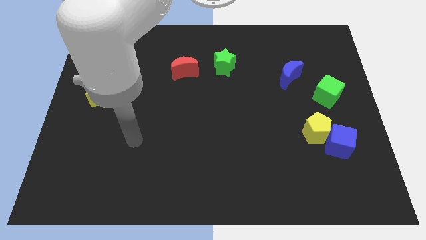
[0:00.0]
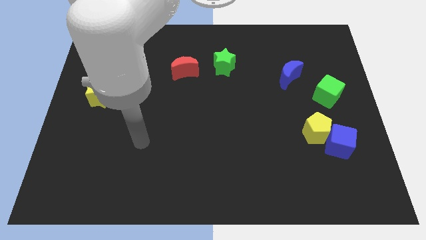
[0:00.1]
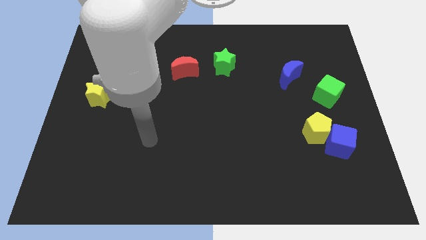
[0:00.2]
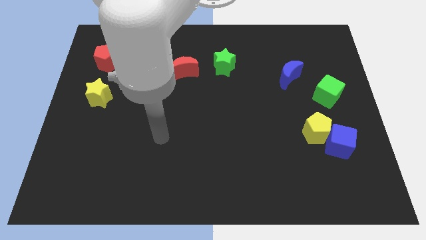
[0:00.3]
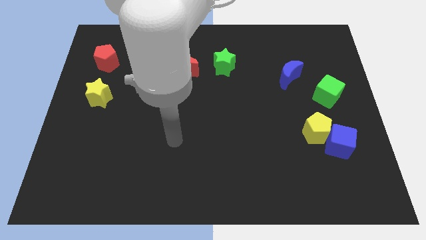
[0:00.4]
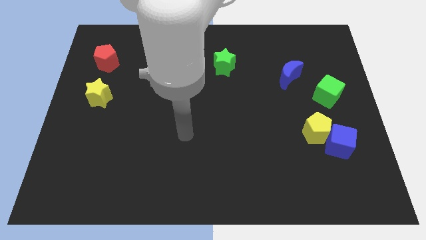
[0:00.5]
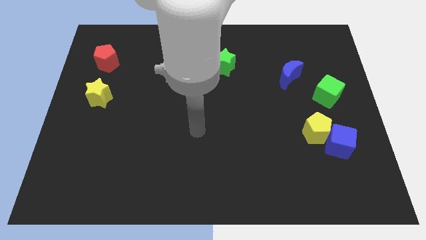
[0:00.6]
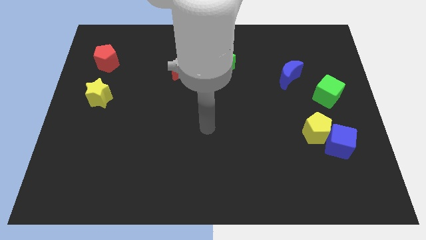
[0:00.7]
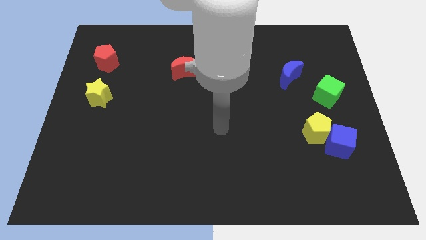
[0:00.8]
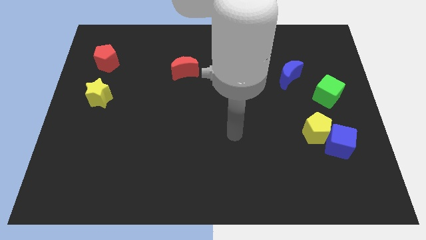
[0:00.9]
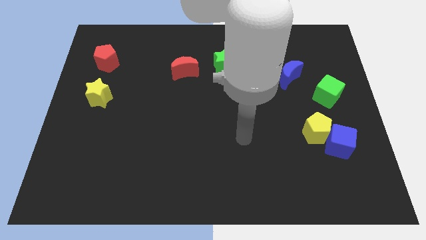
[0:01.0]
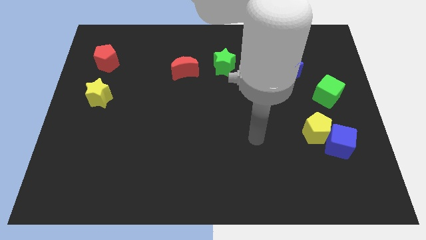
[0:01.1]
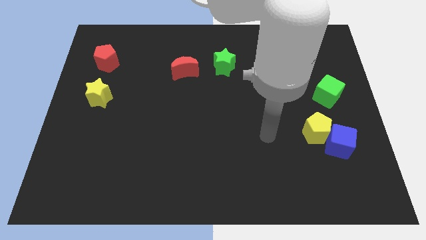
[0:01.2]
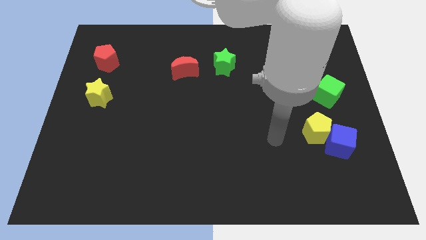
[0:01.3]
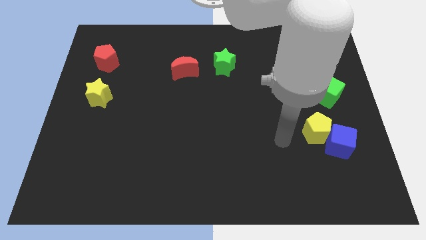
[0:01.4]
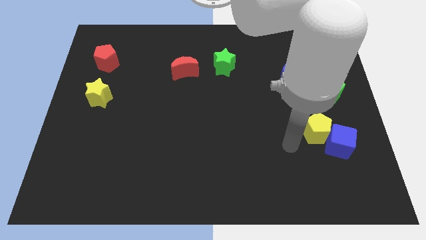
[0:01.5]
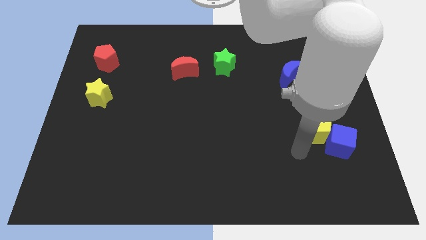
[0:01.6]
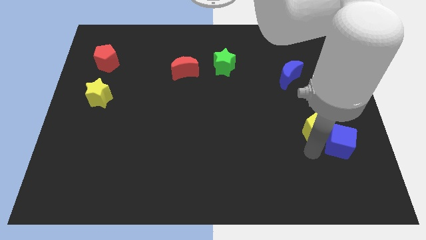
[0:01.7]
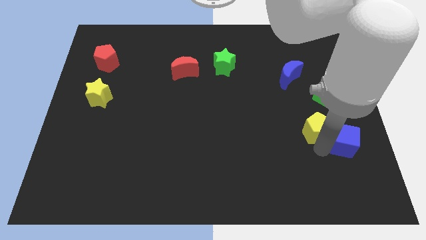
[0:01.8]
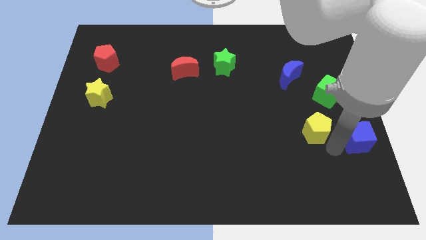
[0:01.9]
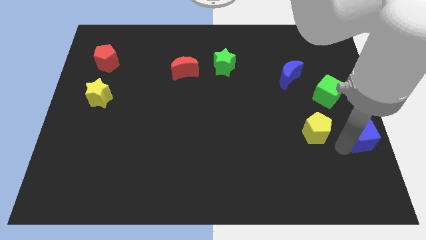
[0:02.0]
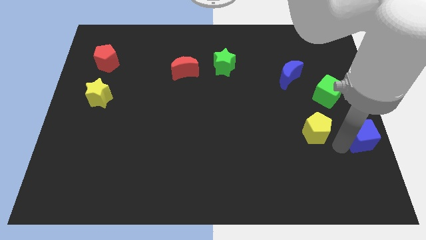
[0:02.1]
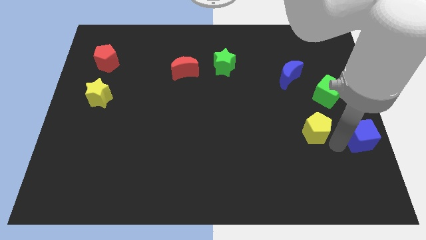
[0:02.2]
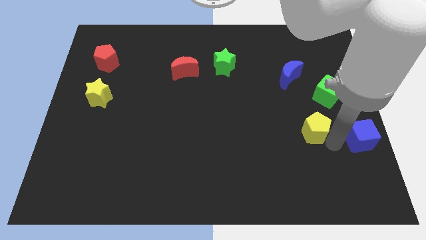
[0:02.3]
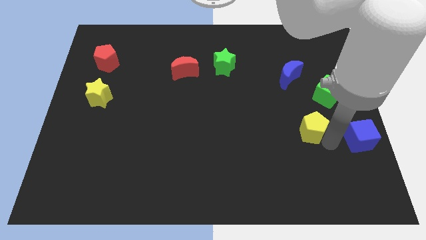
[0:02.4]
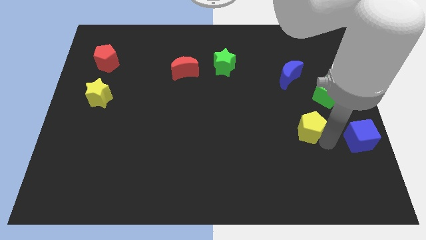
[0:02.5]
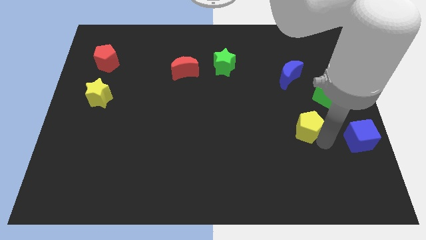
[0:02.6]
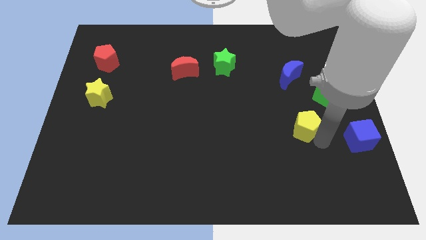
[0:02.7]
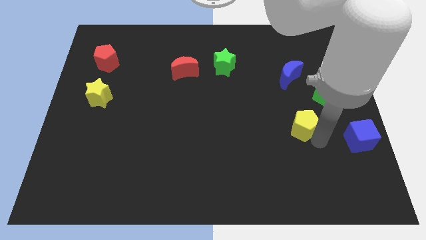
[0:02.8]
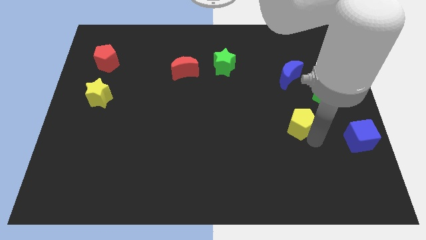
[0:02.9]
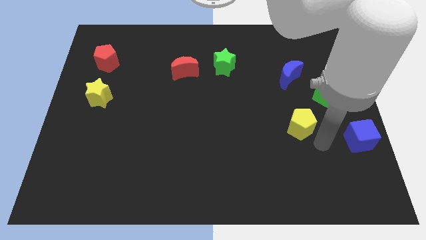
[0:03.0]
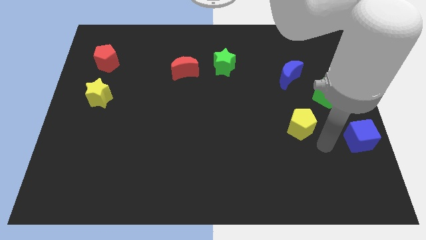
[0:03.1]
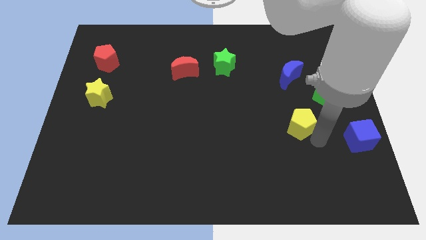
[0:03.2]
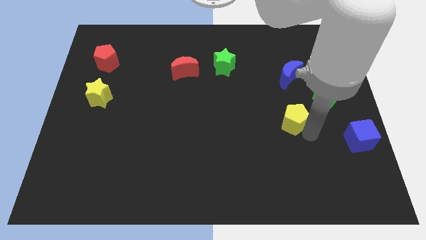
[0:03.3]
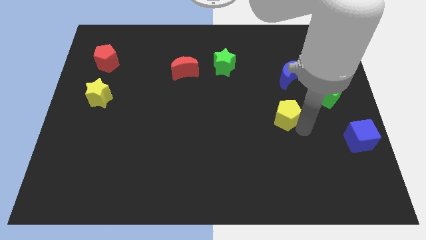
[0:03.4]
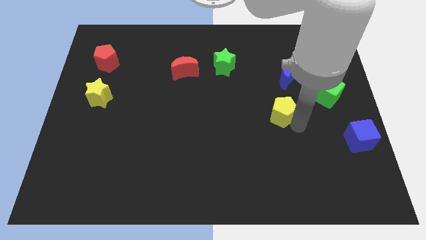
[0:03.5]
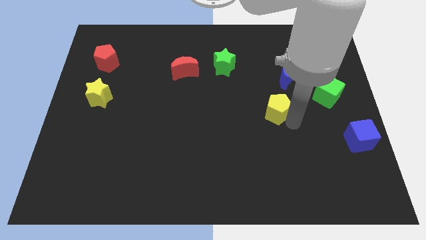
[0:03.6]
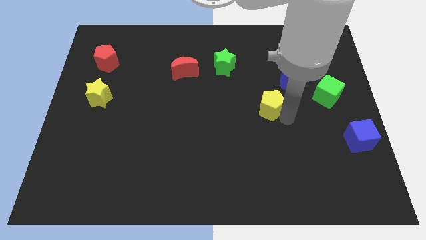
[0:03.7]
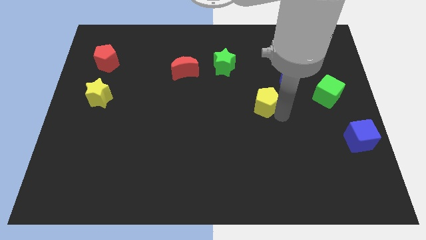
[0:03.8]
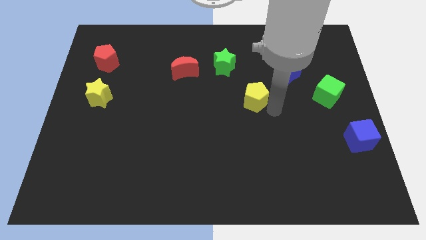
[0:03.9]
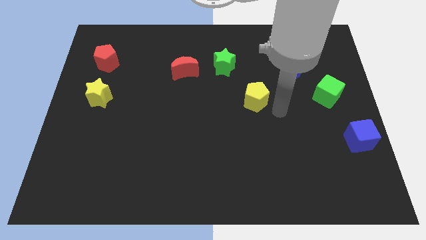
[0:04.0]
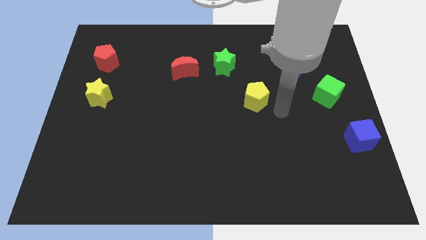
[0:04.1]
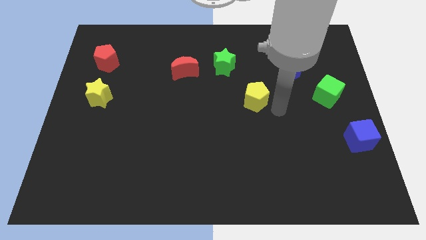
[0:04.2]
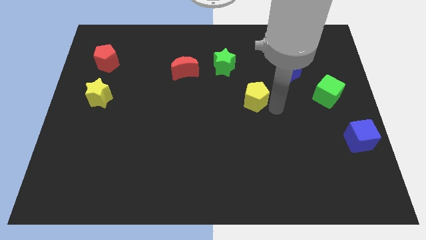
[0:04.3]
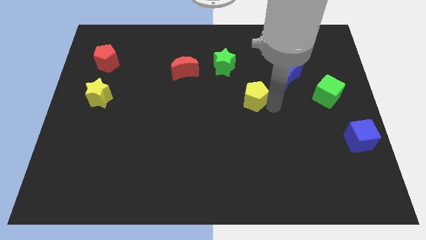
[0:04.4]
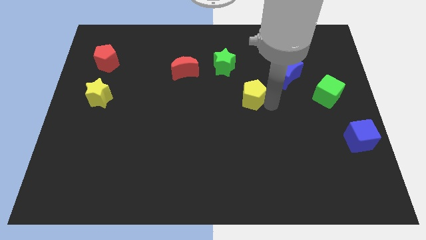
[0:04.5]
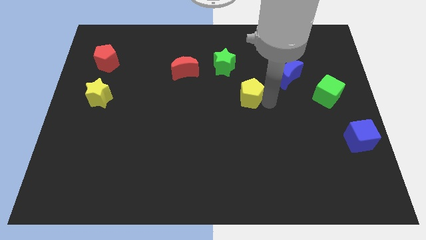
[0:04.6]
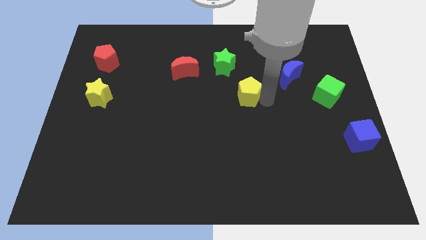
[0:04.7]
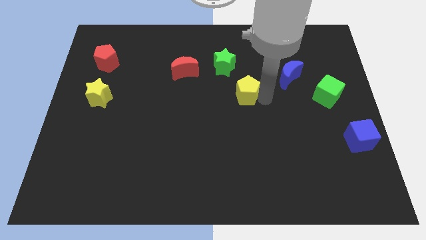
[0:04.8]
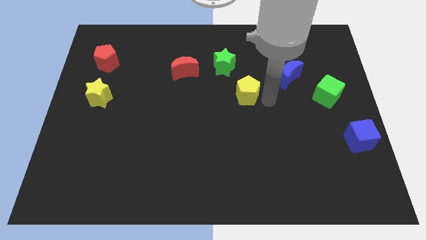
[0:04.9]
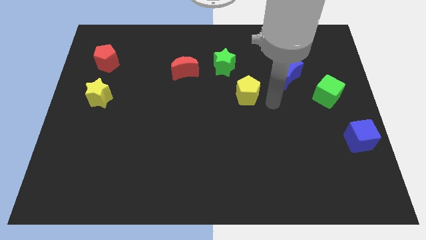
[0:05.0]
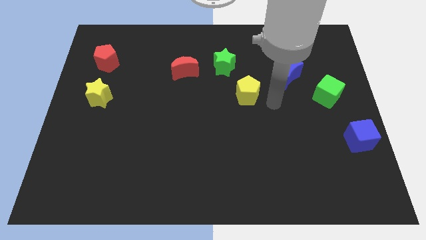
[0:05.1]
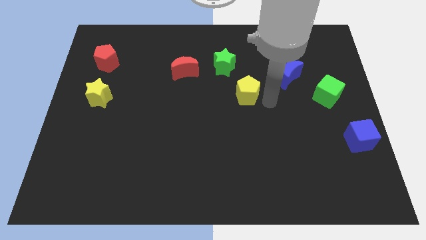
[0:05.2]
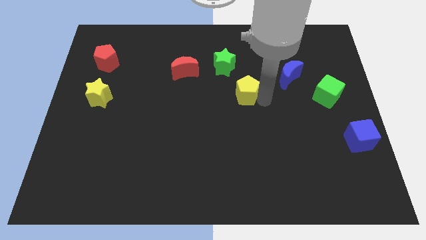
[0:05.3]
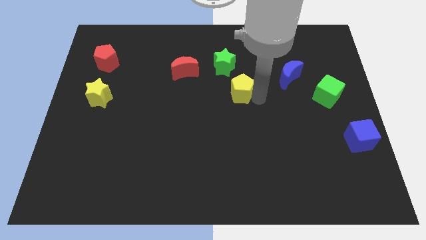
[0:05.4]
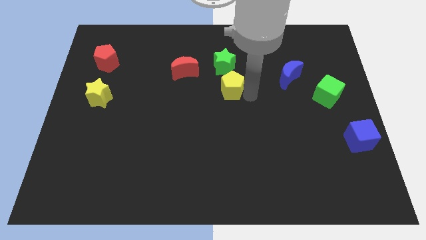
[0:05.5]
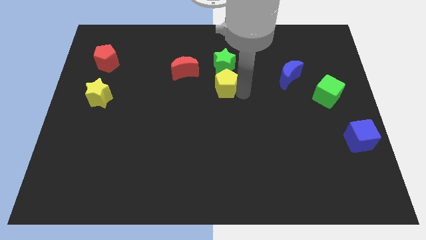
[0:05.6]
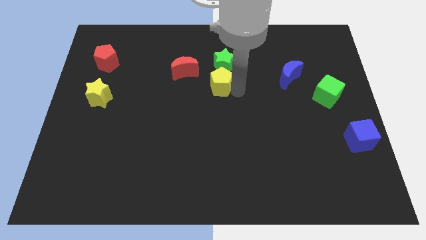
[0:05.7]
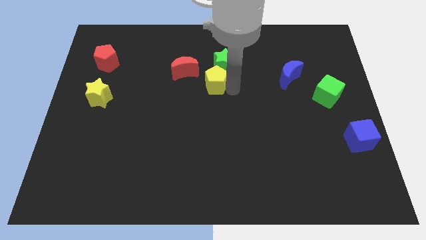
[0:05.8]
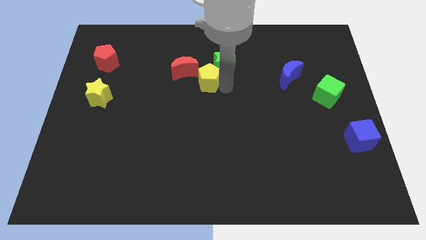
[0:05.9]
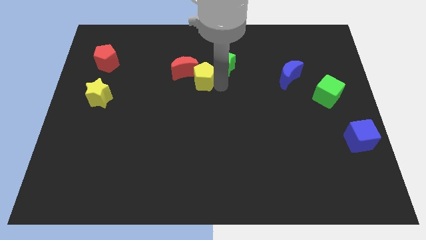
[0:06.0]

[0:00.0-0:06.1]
move the yellow pentagon next to the red moon
